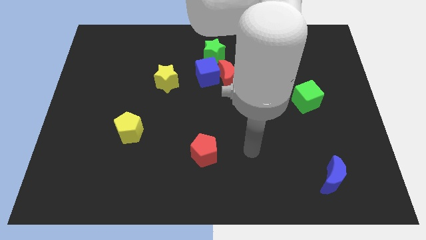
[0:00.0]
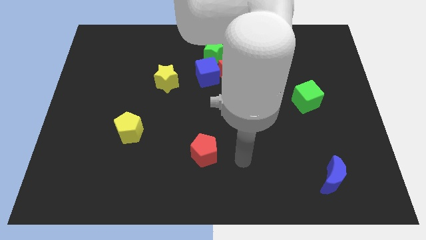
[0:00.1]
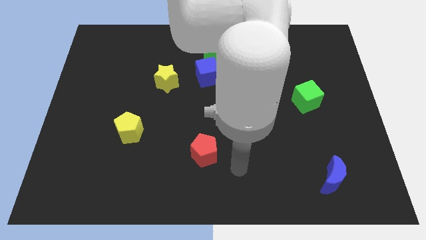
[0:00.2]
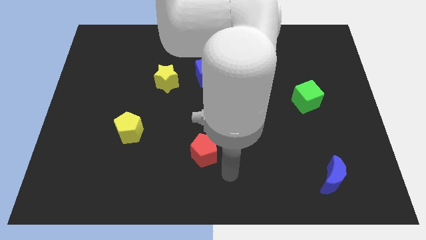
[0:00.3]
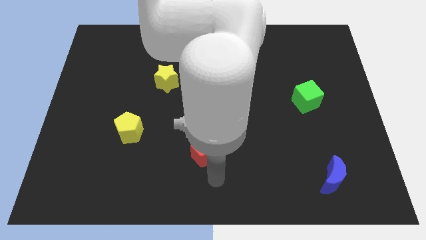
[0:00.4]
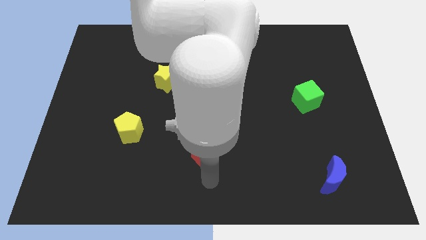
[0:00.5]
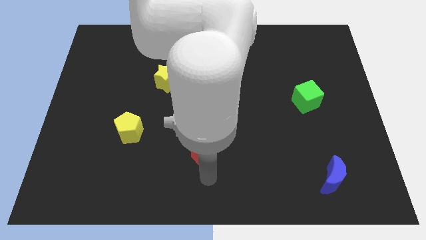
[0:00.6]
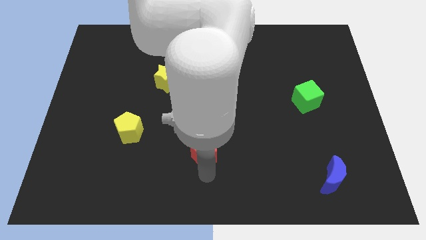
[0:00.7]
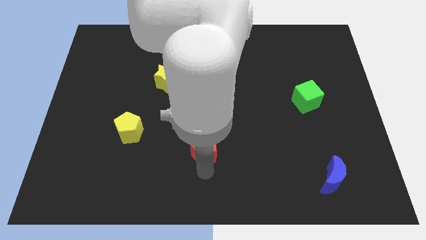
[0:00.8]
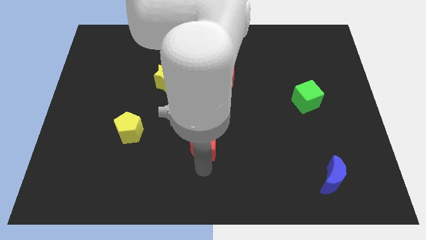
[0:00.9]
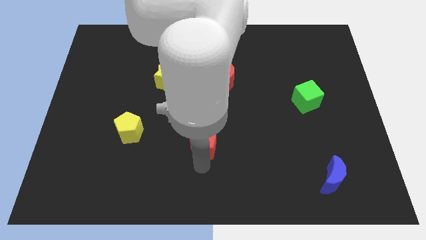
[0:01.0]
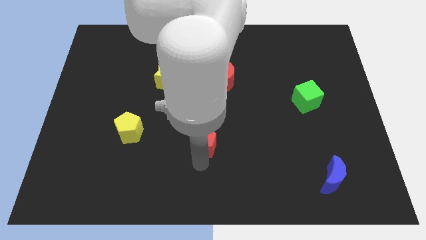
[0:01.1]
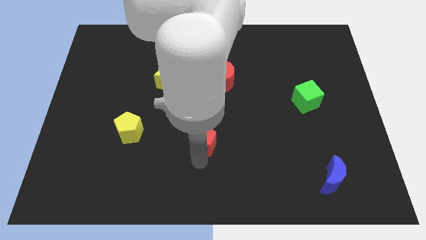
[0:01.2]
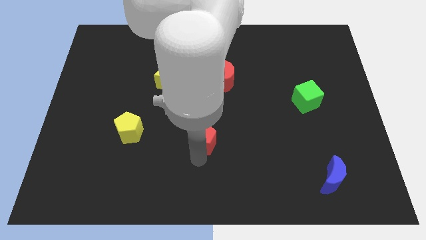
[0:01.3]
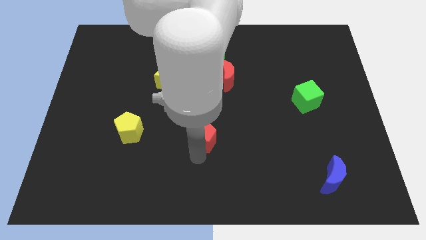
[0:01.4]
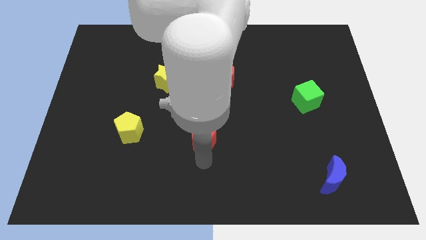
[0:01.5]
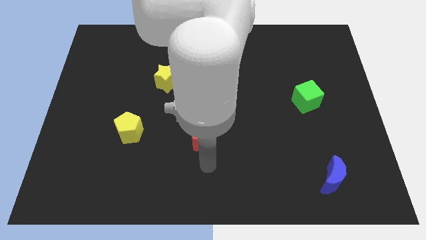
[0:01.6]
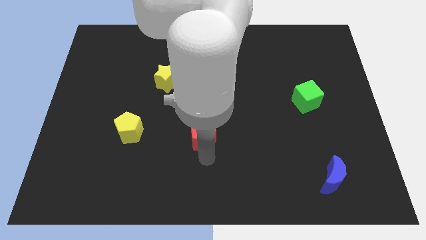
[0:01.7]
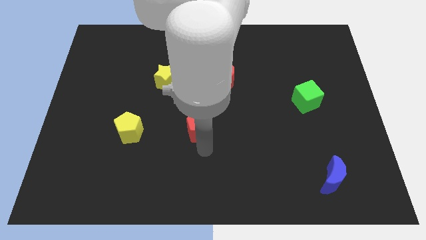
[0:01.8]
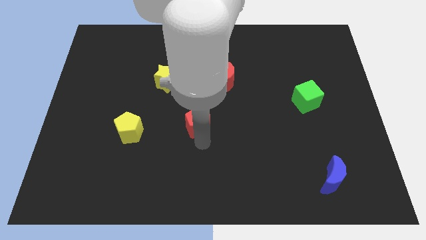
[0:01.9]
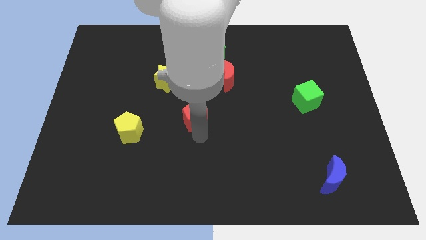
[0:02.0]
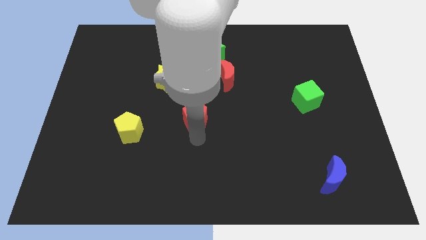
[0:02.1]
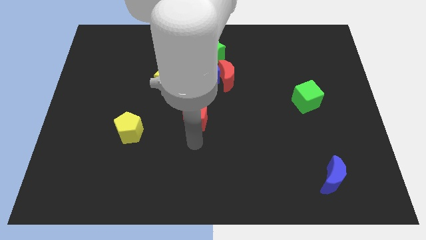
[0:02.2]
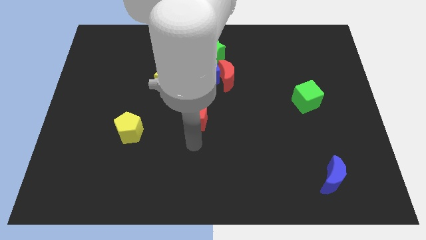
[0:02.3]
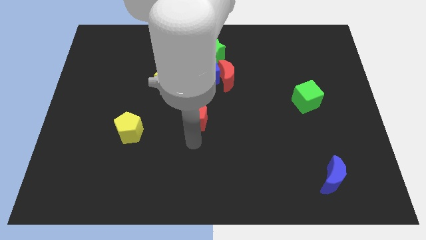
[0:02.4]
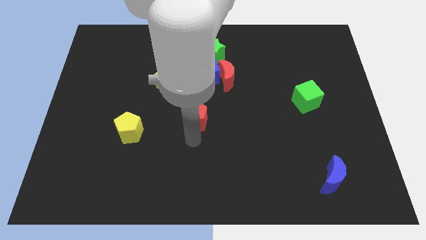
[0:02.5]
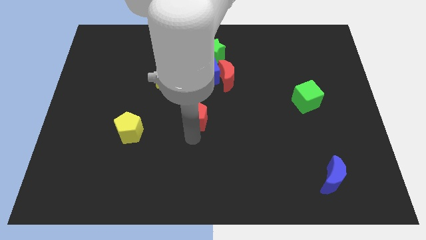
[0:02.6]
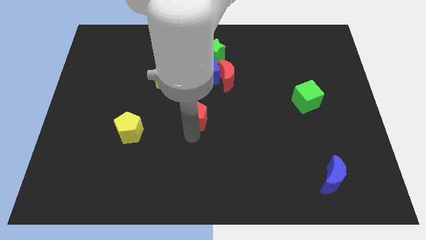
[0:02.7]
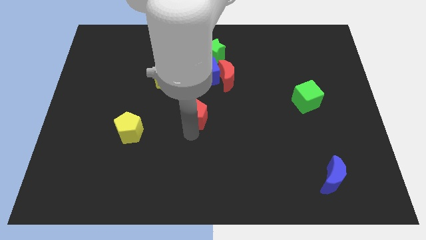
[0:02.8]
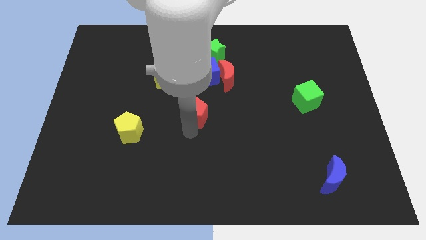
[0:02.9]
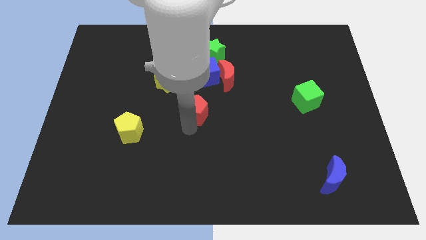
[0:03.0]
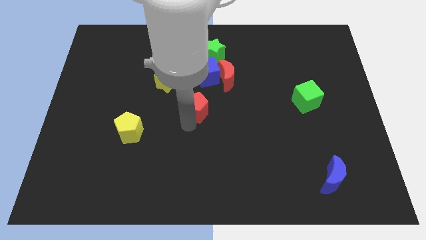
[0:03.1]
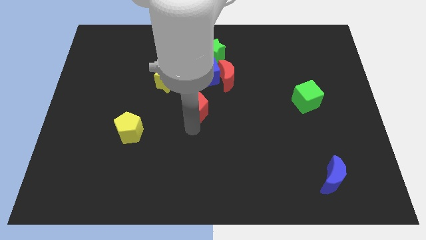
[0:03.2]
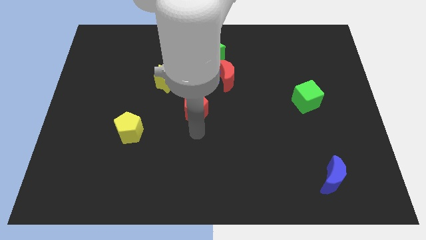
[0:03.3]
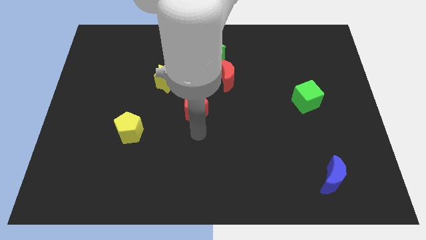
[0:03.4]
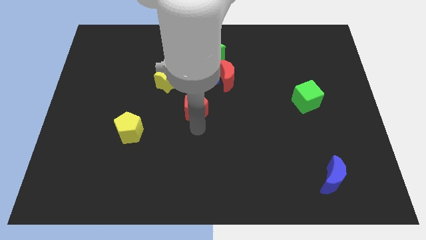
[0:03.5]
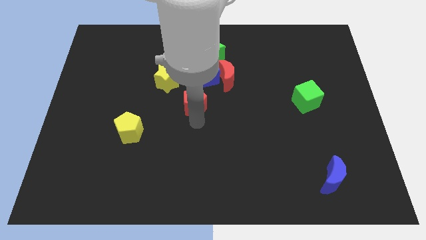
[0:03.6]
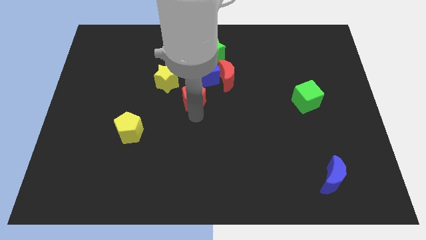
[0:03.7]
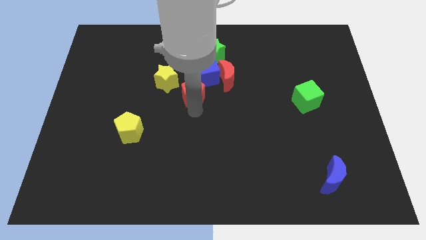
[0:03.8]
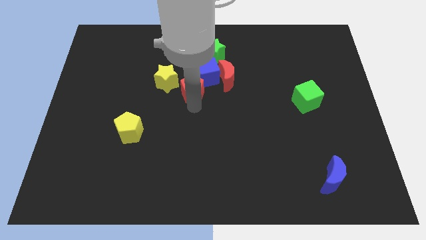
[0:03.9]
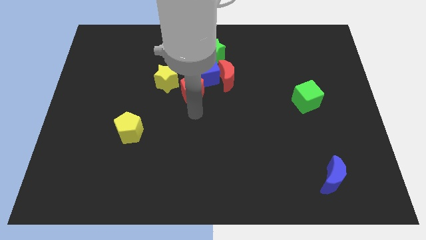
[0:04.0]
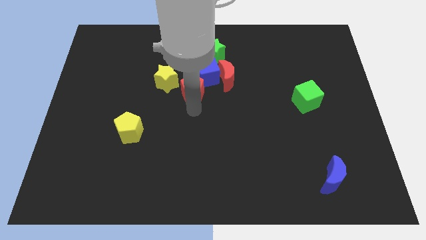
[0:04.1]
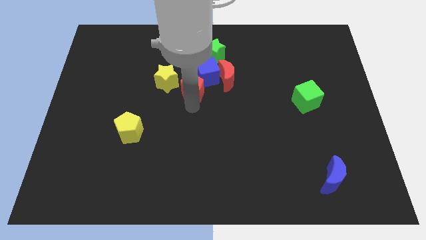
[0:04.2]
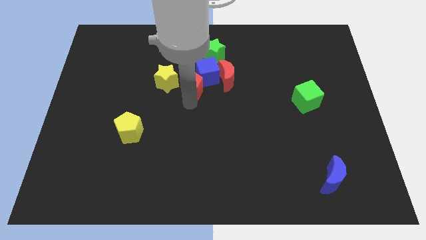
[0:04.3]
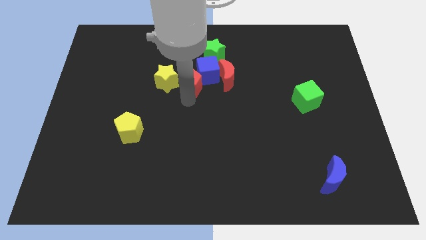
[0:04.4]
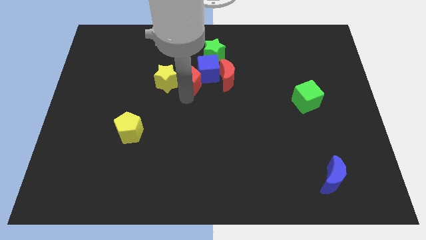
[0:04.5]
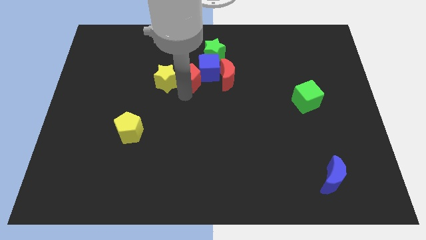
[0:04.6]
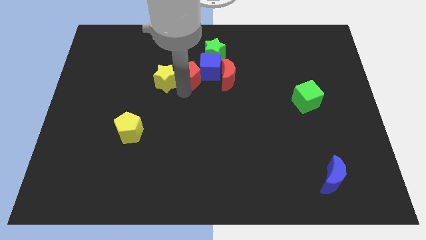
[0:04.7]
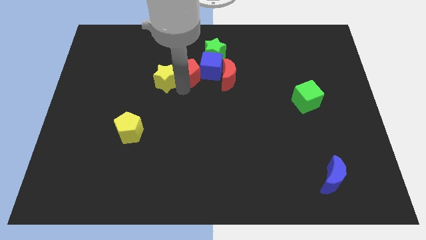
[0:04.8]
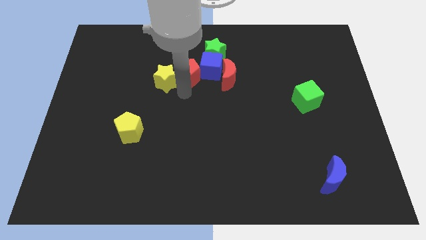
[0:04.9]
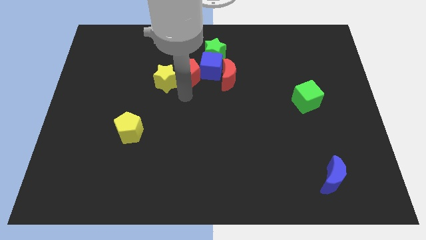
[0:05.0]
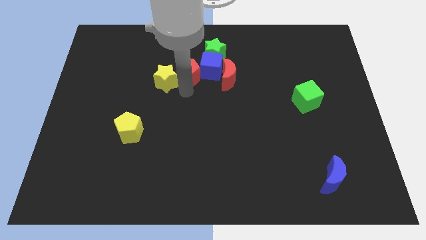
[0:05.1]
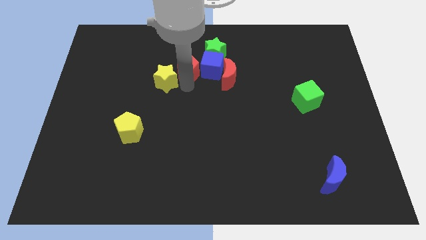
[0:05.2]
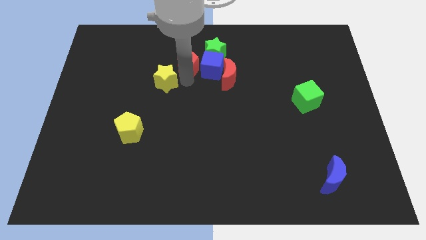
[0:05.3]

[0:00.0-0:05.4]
move the red pentagon diagonally up and to the left of the blue cube

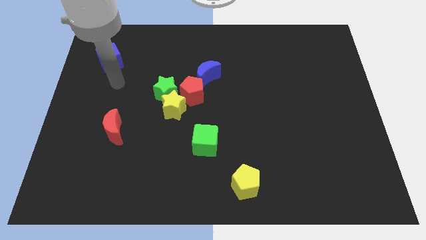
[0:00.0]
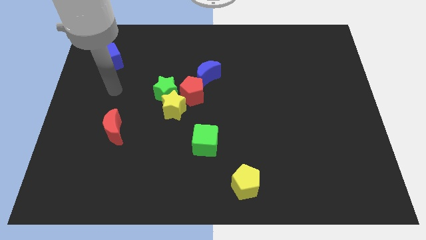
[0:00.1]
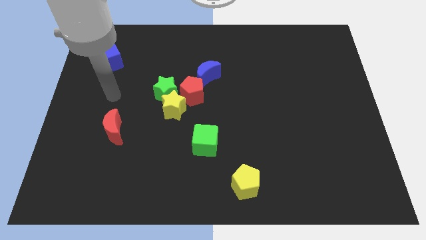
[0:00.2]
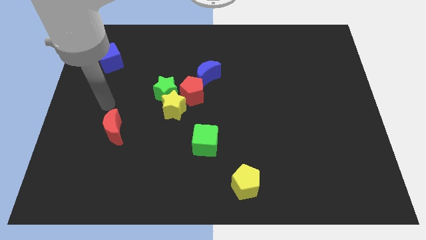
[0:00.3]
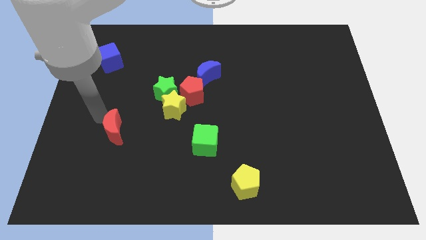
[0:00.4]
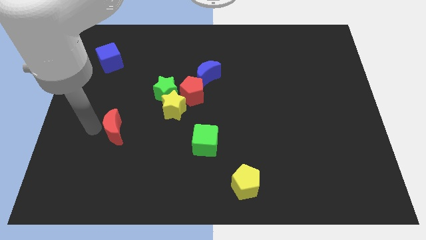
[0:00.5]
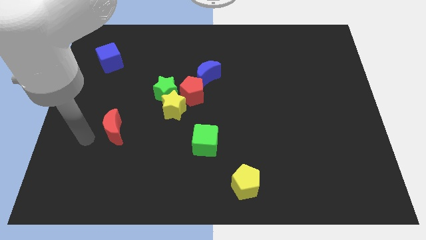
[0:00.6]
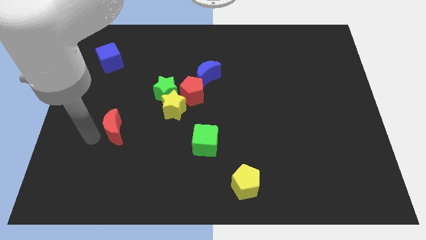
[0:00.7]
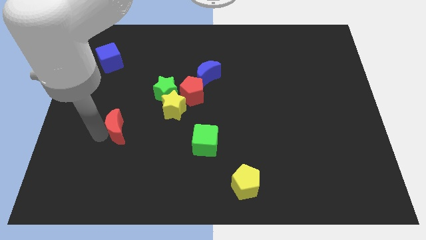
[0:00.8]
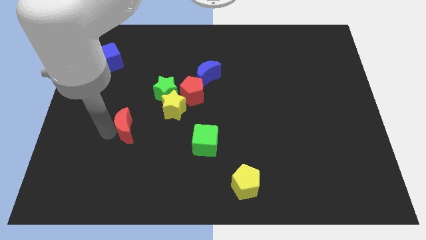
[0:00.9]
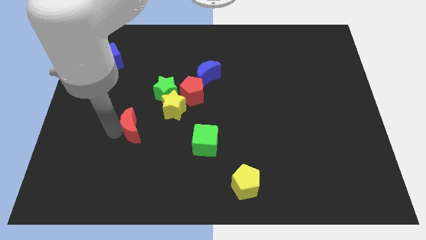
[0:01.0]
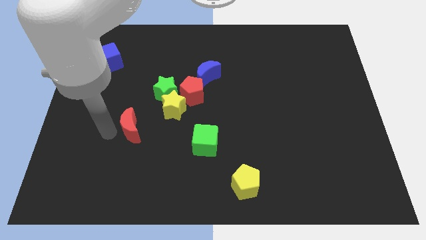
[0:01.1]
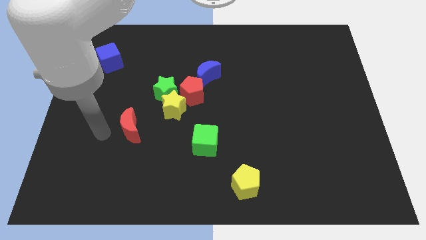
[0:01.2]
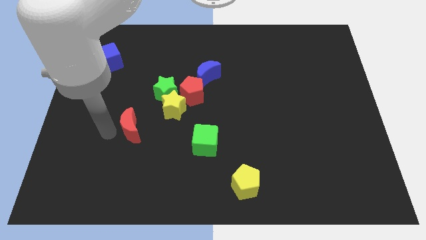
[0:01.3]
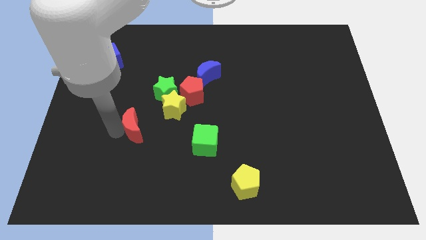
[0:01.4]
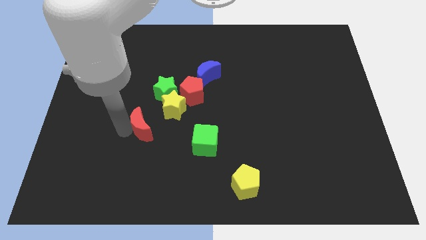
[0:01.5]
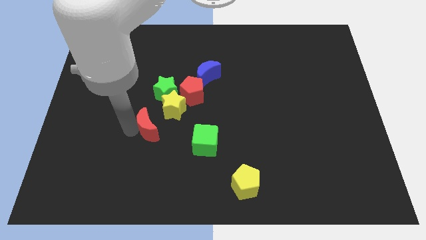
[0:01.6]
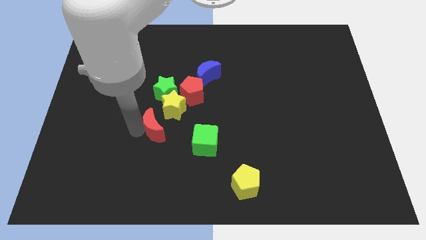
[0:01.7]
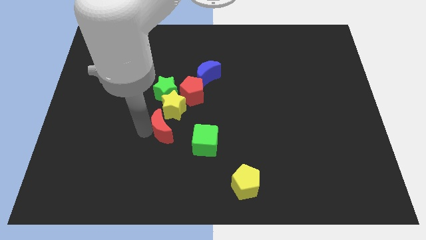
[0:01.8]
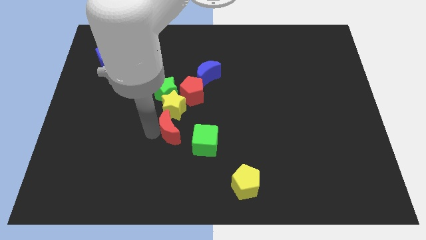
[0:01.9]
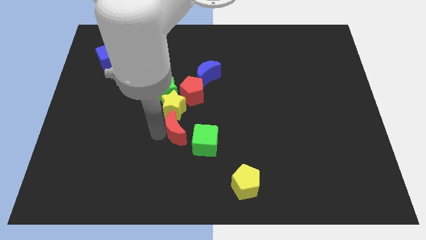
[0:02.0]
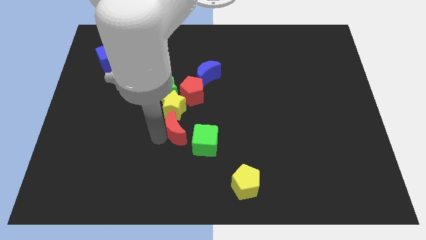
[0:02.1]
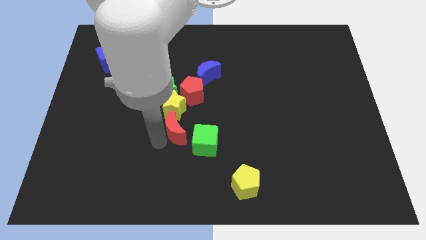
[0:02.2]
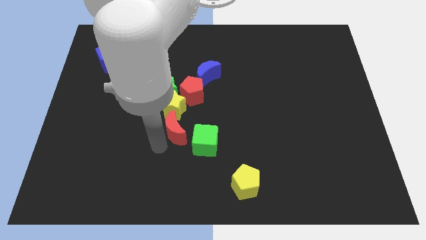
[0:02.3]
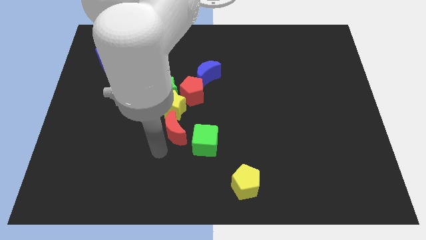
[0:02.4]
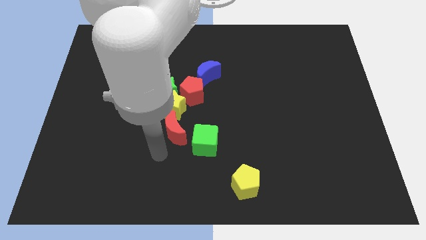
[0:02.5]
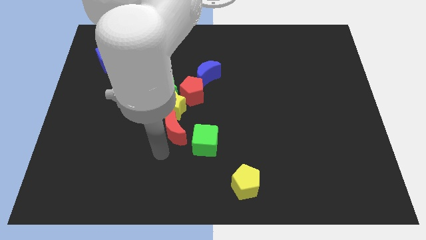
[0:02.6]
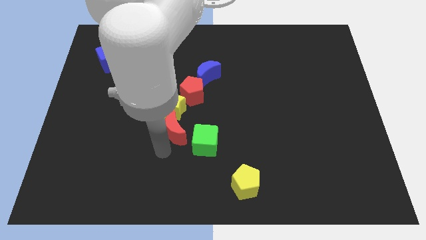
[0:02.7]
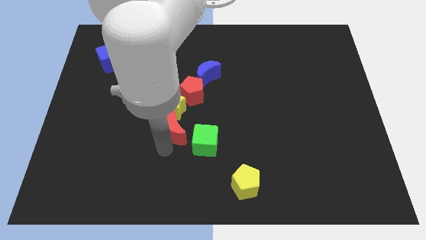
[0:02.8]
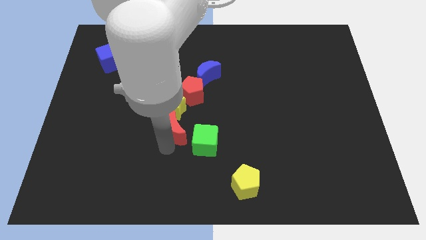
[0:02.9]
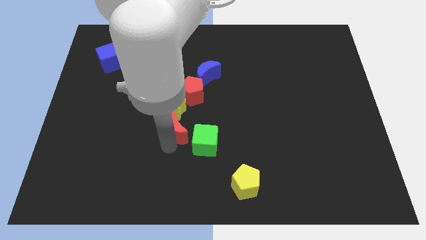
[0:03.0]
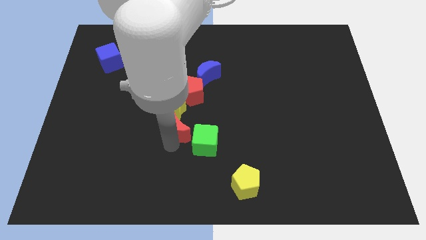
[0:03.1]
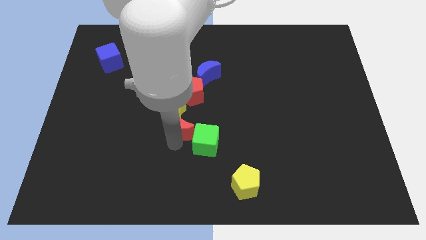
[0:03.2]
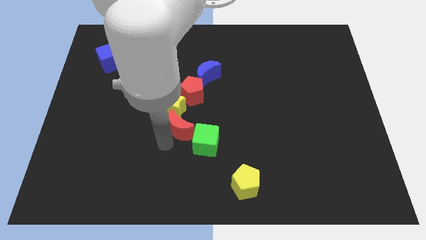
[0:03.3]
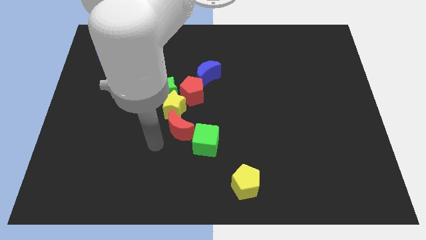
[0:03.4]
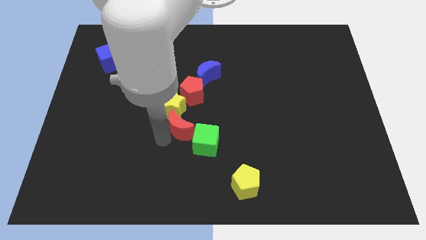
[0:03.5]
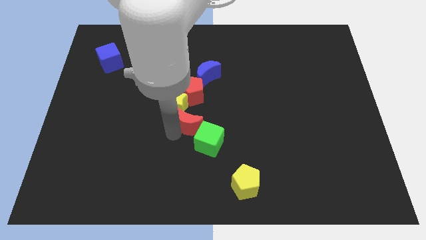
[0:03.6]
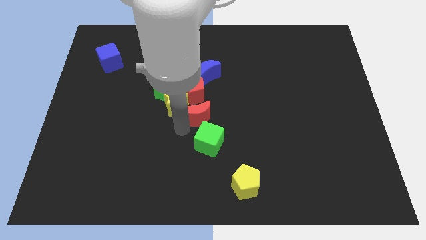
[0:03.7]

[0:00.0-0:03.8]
push the red moon to the right side of the yellow star
